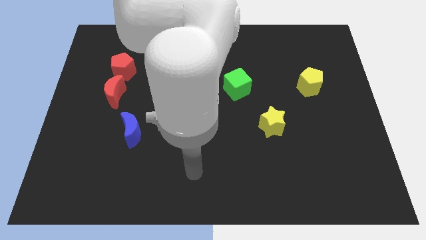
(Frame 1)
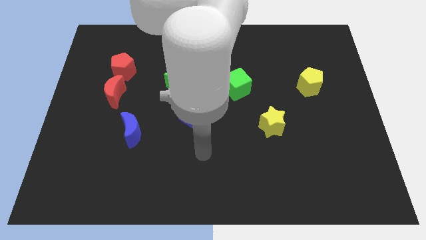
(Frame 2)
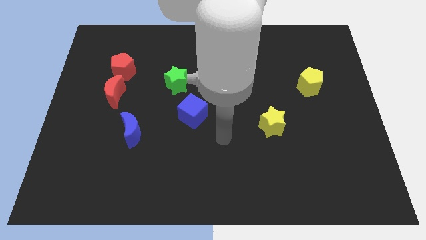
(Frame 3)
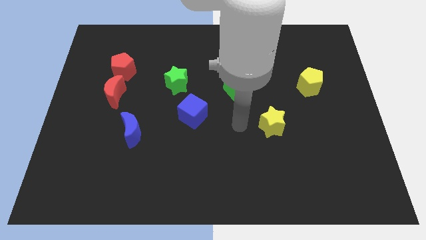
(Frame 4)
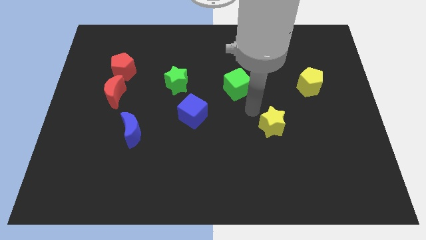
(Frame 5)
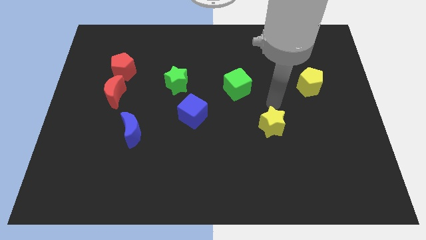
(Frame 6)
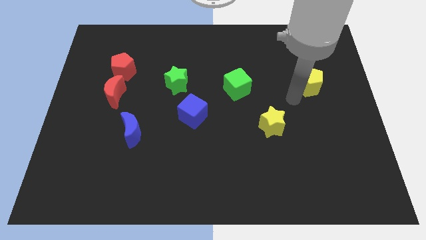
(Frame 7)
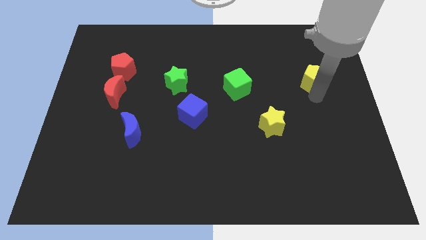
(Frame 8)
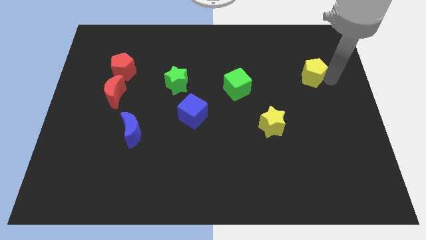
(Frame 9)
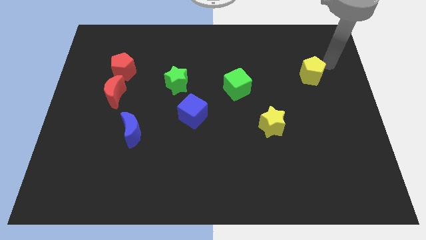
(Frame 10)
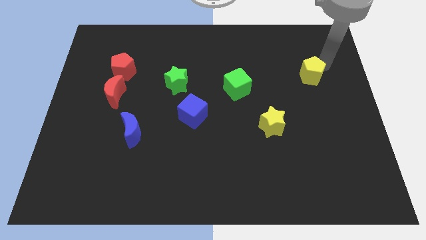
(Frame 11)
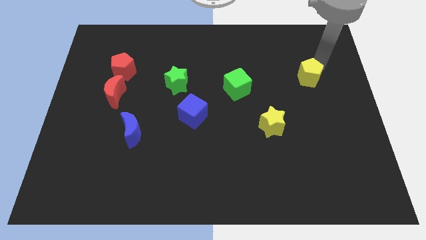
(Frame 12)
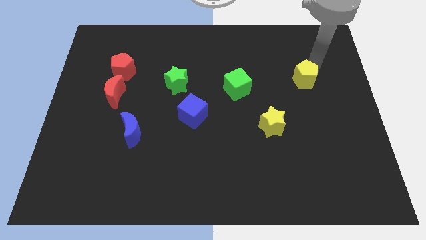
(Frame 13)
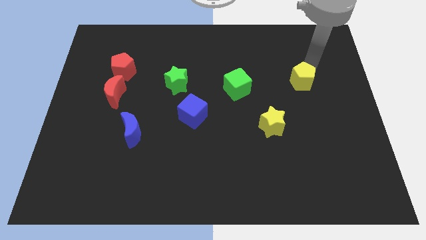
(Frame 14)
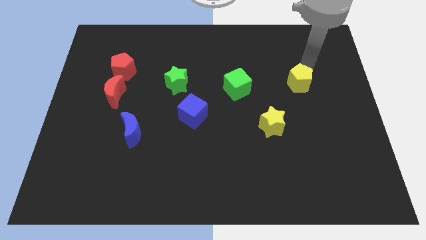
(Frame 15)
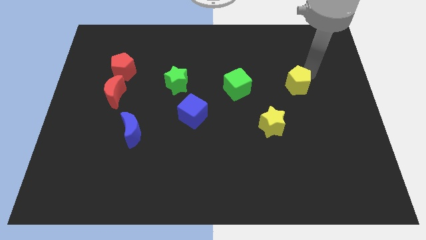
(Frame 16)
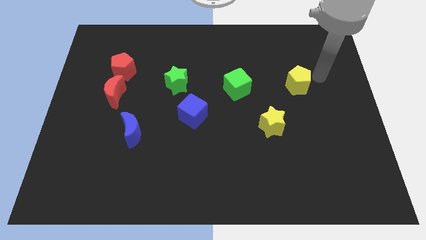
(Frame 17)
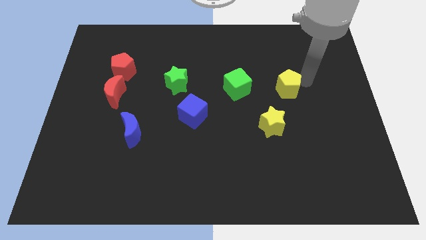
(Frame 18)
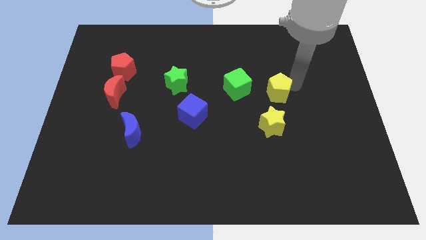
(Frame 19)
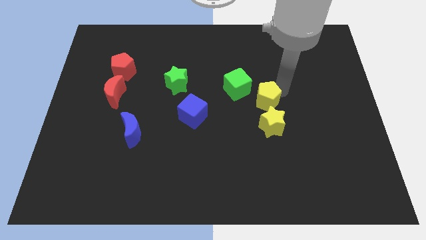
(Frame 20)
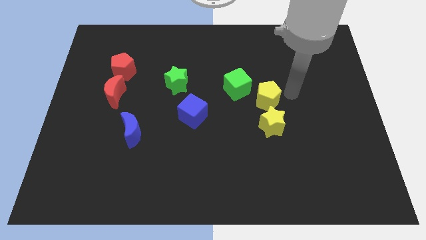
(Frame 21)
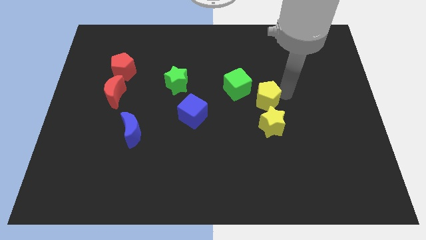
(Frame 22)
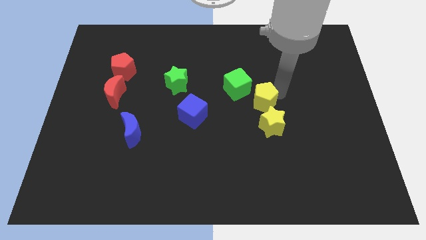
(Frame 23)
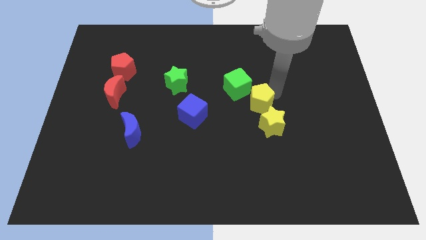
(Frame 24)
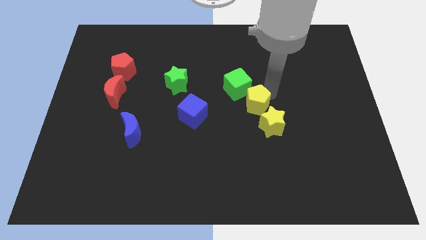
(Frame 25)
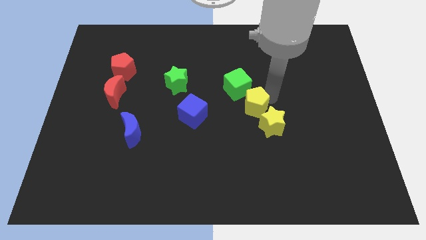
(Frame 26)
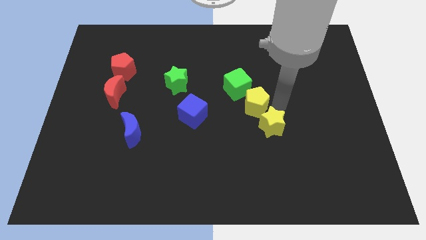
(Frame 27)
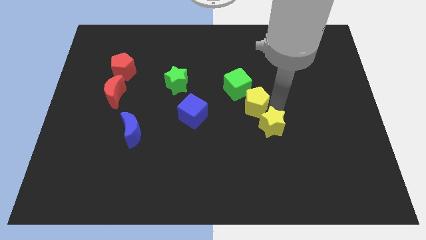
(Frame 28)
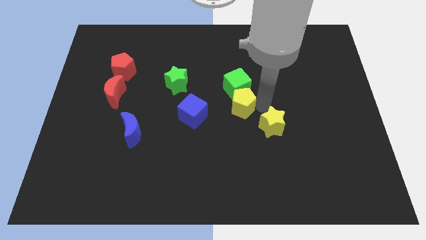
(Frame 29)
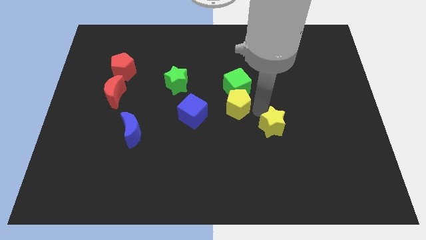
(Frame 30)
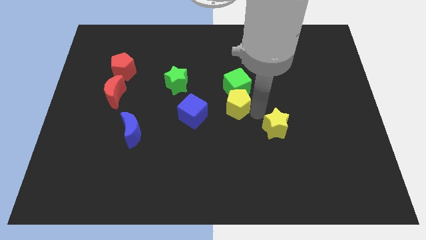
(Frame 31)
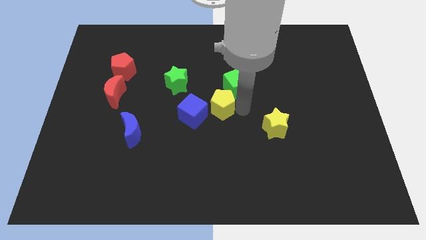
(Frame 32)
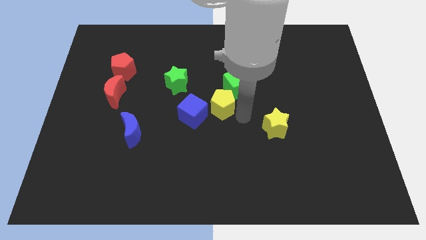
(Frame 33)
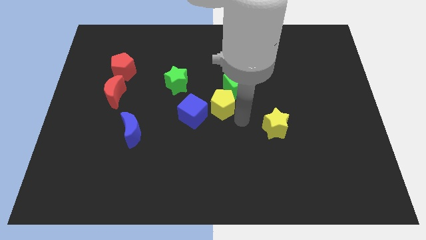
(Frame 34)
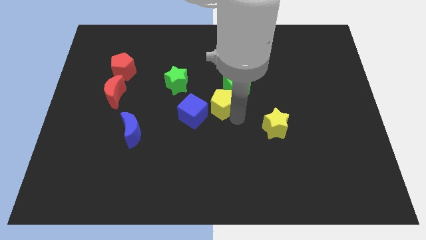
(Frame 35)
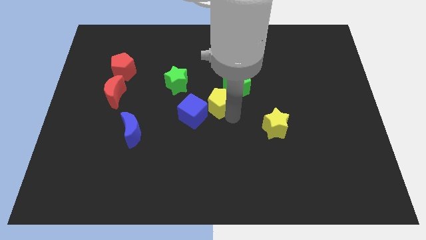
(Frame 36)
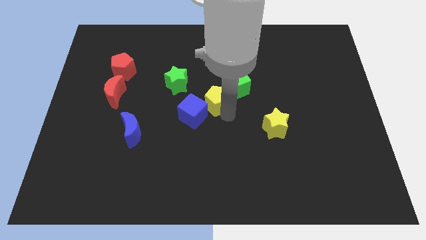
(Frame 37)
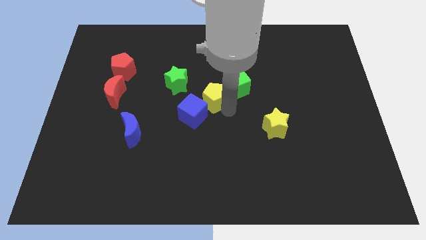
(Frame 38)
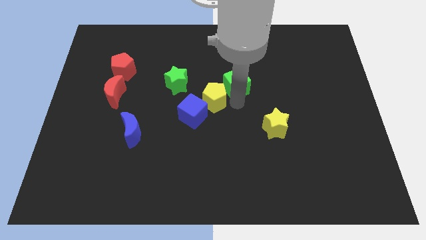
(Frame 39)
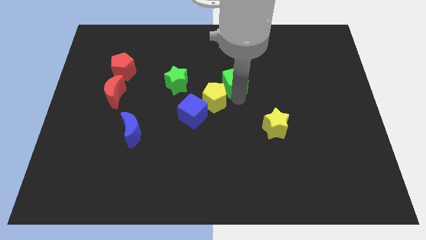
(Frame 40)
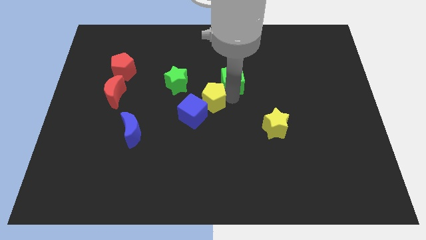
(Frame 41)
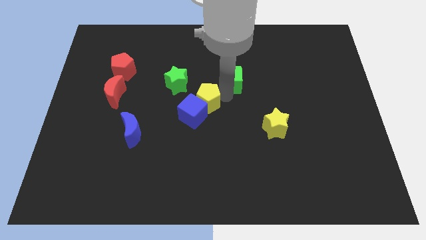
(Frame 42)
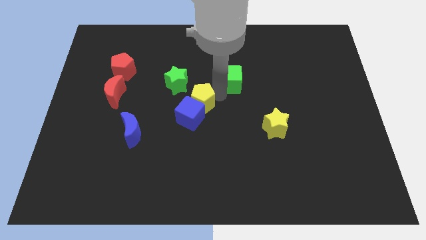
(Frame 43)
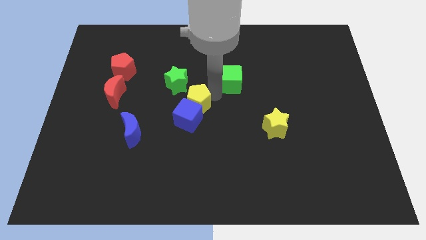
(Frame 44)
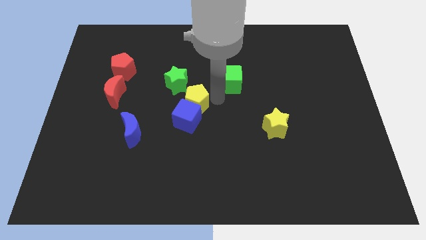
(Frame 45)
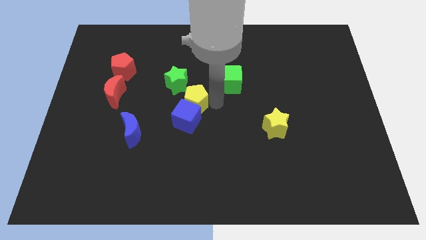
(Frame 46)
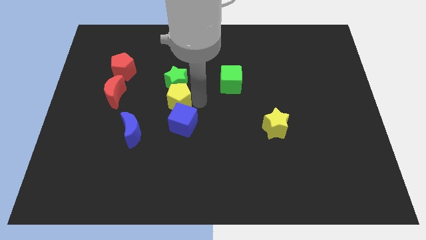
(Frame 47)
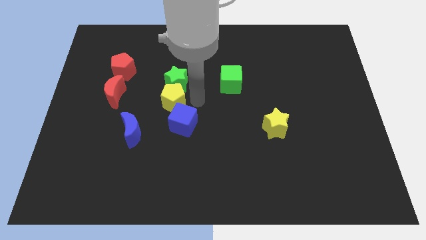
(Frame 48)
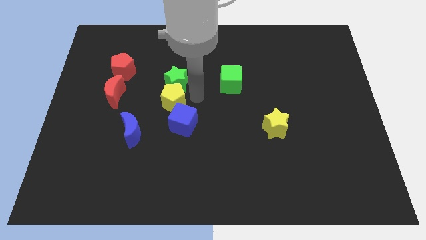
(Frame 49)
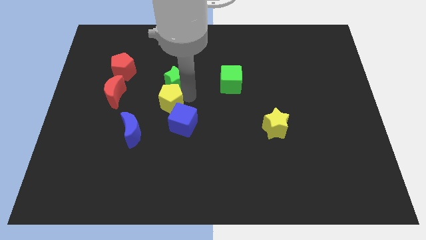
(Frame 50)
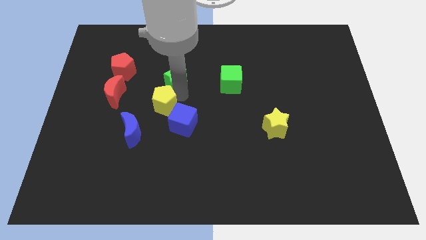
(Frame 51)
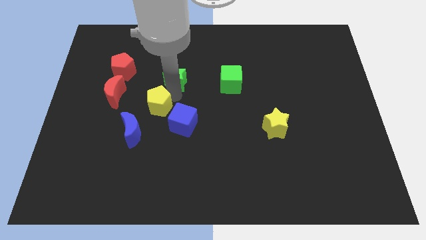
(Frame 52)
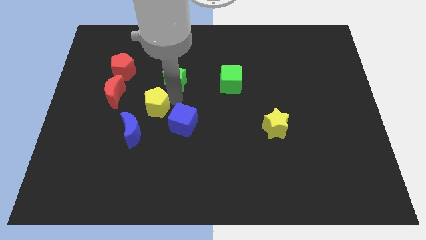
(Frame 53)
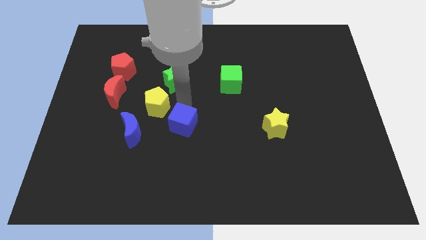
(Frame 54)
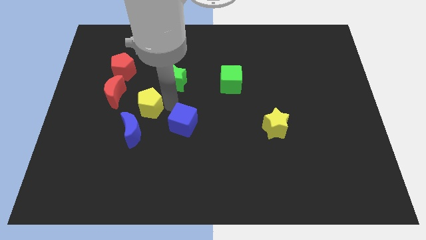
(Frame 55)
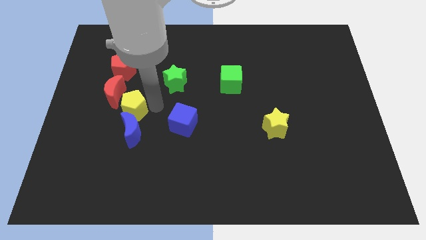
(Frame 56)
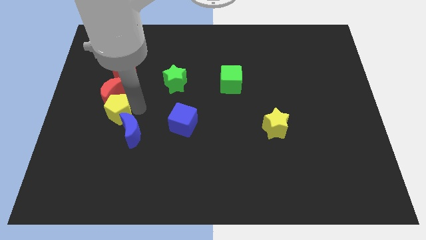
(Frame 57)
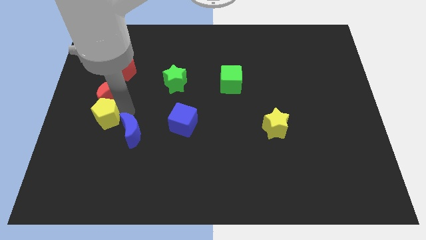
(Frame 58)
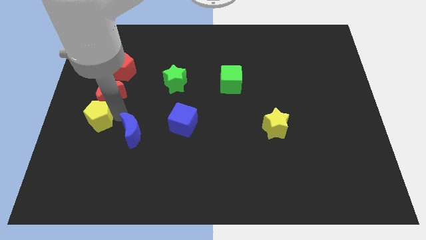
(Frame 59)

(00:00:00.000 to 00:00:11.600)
put the yellow pentagon to the center left
